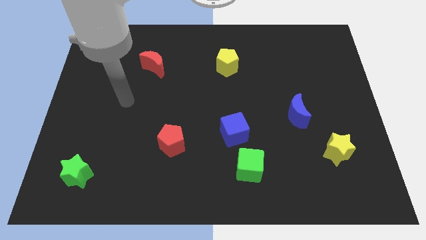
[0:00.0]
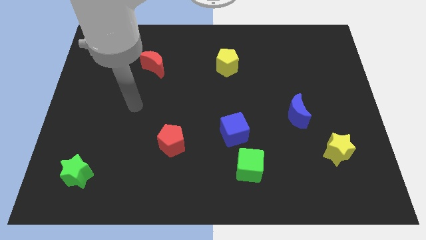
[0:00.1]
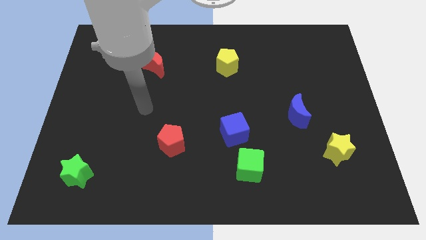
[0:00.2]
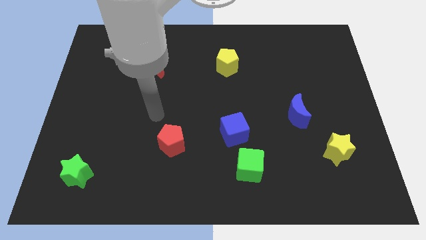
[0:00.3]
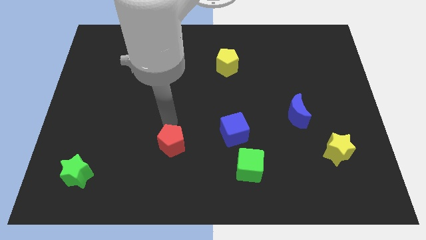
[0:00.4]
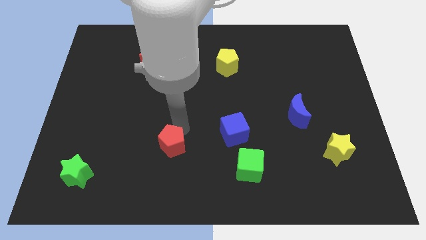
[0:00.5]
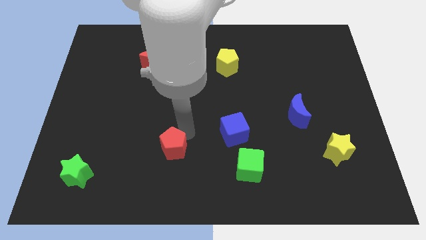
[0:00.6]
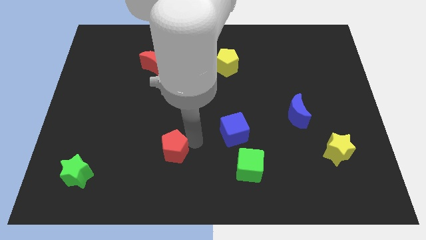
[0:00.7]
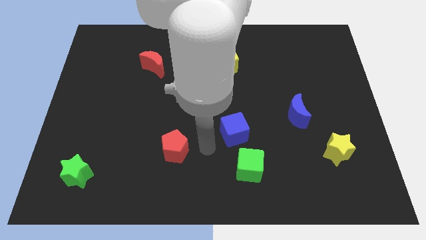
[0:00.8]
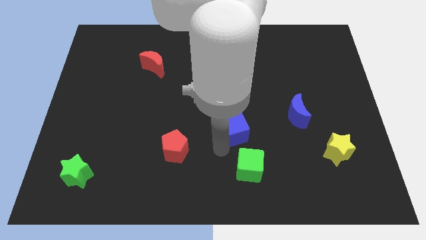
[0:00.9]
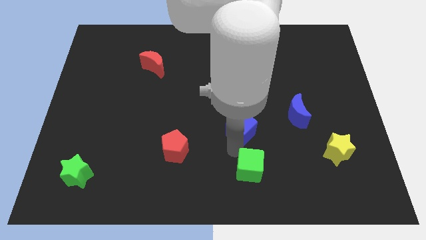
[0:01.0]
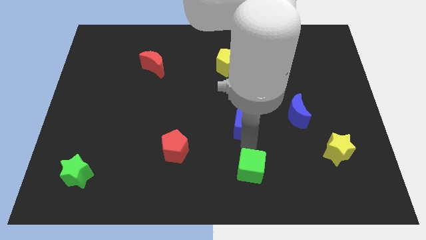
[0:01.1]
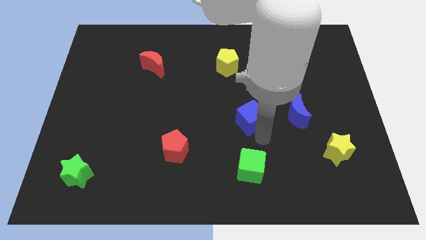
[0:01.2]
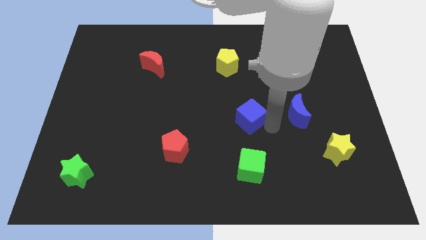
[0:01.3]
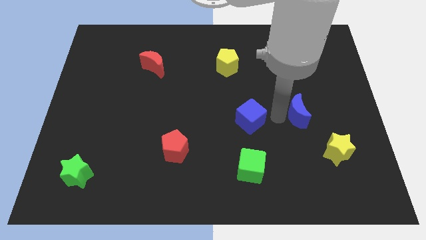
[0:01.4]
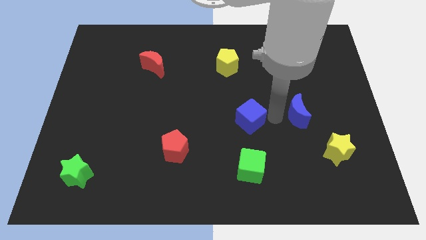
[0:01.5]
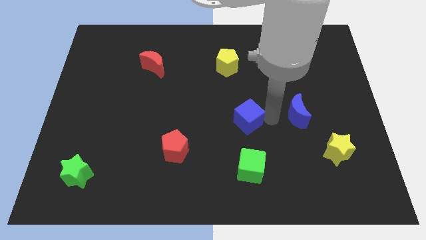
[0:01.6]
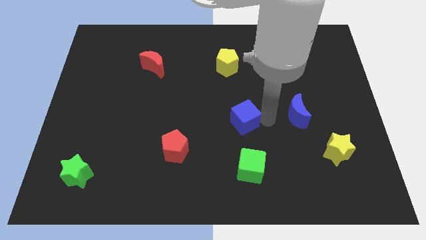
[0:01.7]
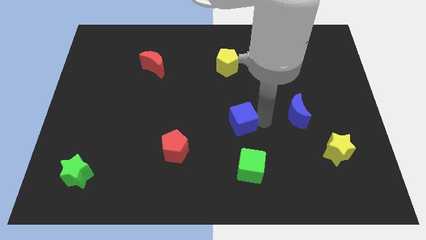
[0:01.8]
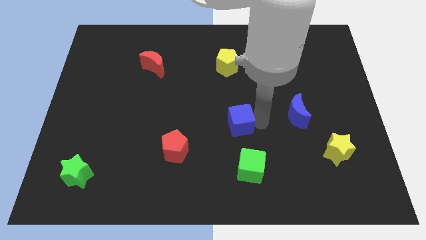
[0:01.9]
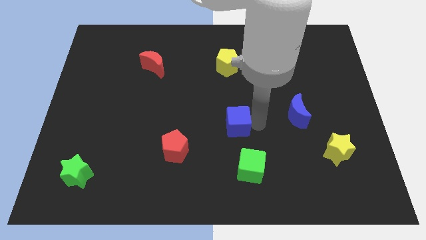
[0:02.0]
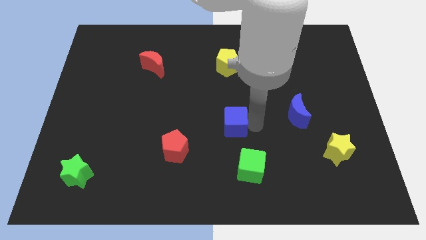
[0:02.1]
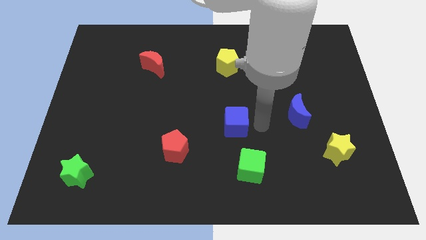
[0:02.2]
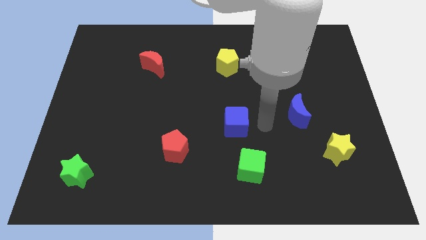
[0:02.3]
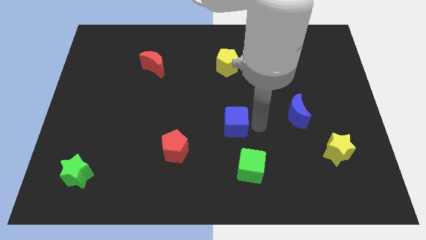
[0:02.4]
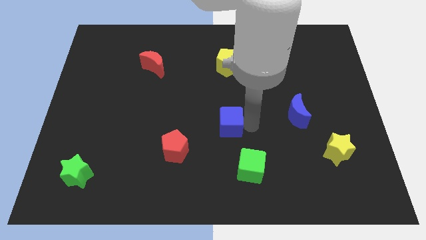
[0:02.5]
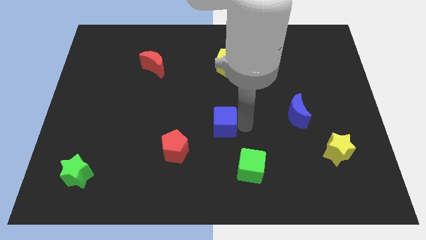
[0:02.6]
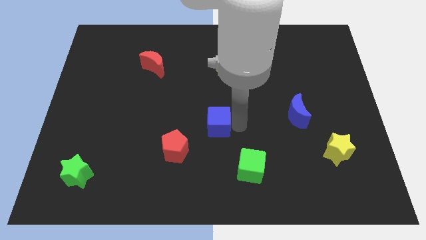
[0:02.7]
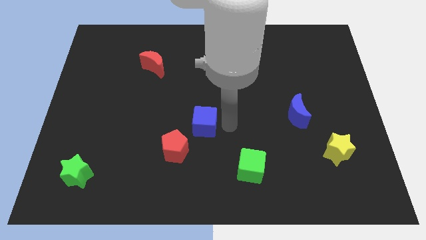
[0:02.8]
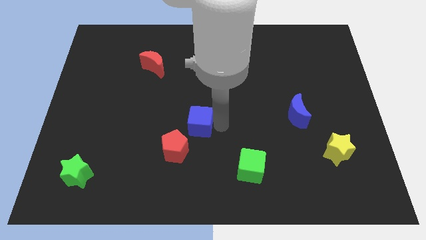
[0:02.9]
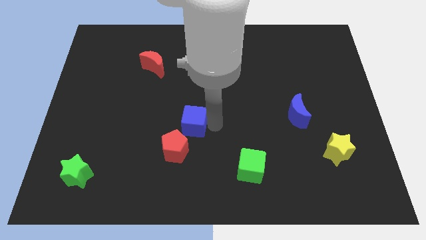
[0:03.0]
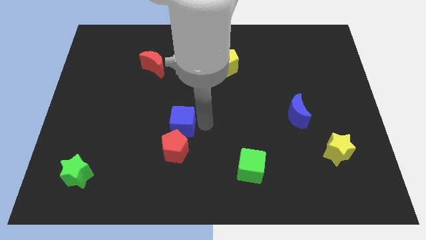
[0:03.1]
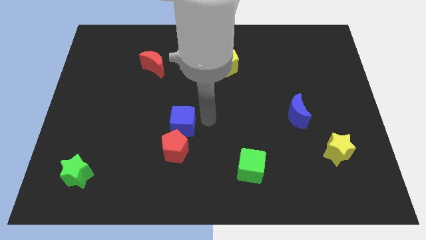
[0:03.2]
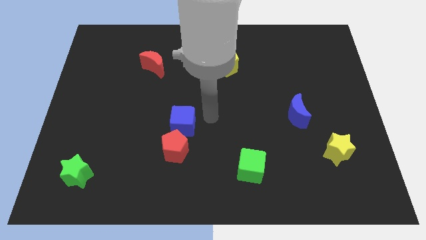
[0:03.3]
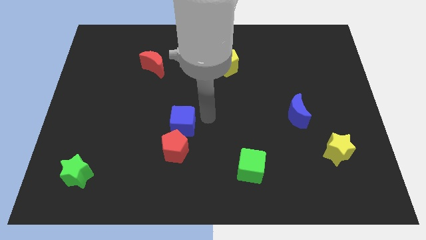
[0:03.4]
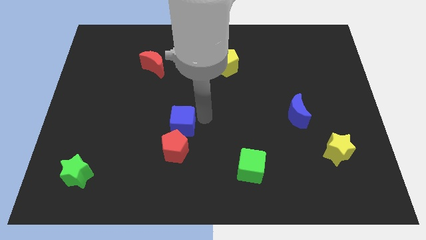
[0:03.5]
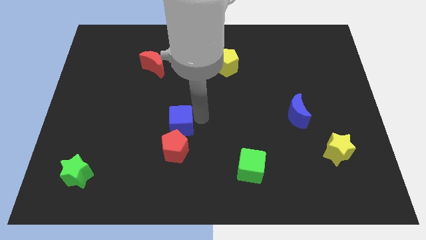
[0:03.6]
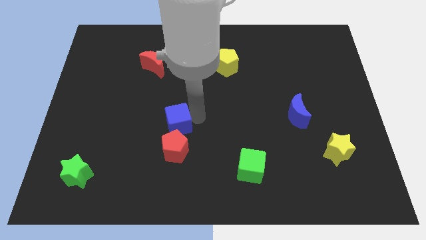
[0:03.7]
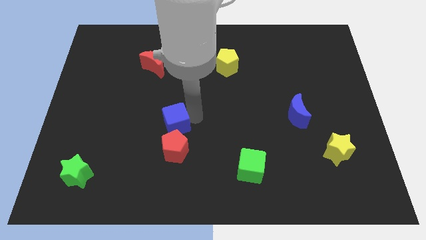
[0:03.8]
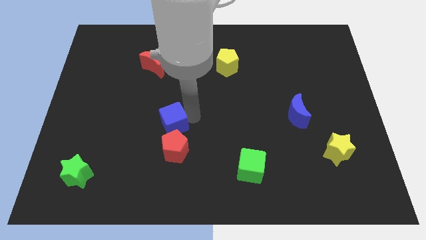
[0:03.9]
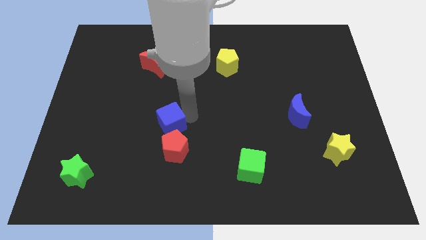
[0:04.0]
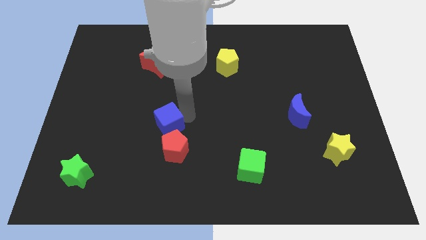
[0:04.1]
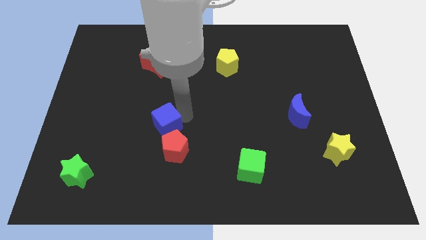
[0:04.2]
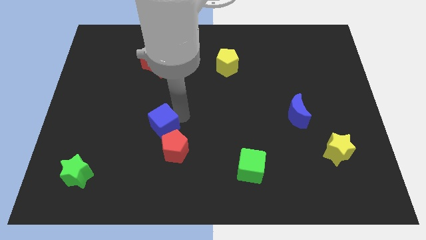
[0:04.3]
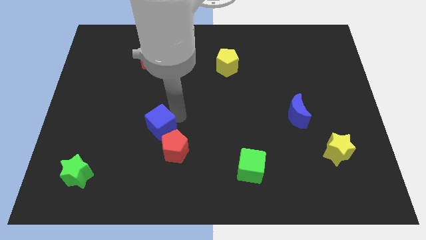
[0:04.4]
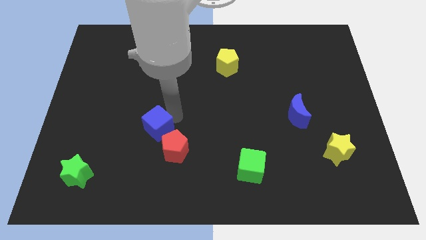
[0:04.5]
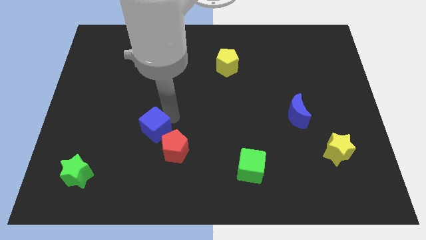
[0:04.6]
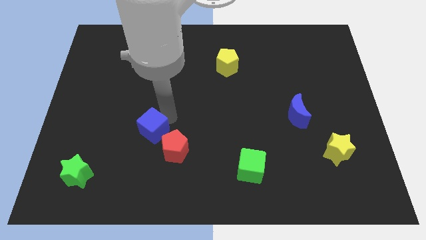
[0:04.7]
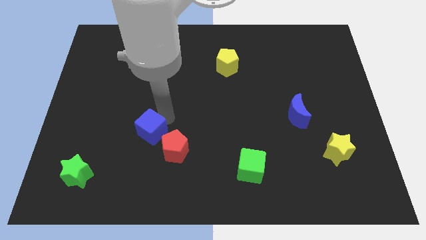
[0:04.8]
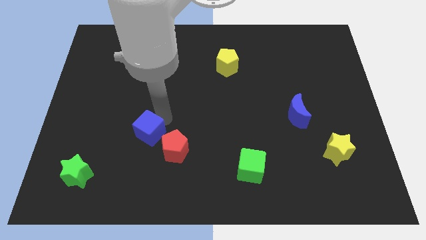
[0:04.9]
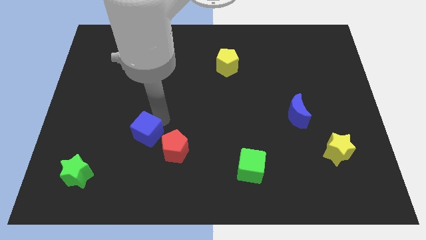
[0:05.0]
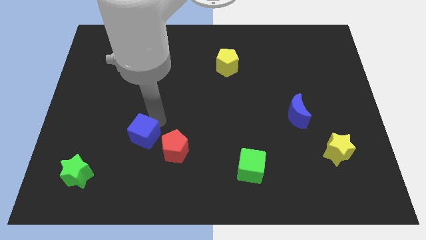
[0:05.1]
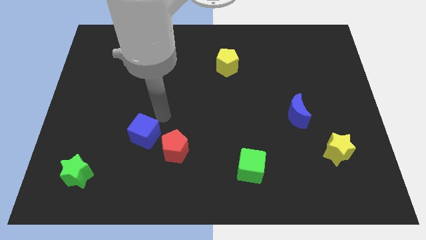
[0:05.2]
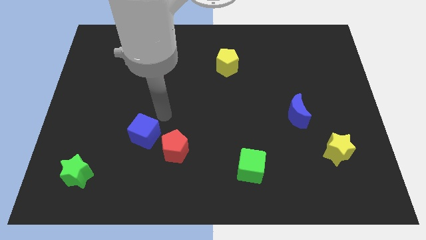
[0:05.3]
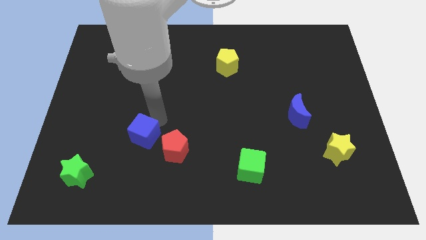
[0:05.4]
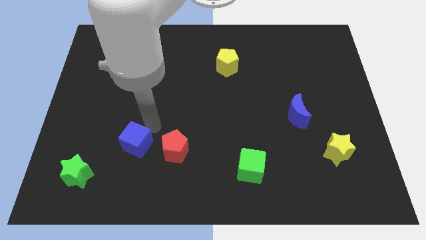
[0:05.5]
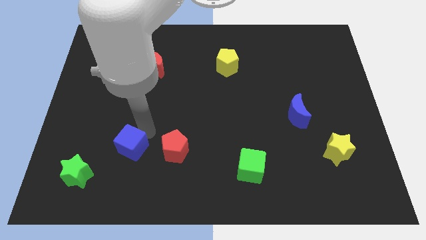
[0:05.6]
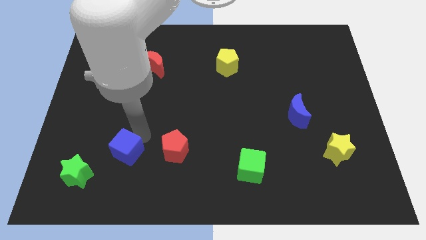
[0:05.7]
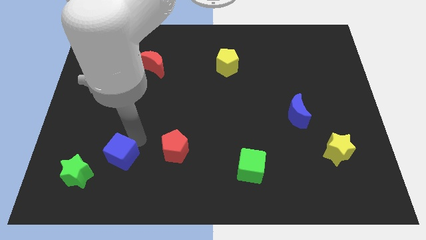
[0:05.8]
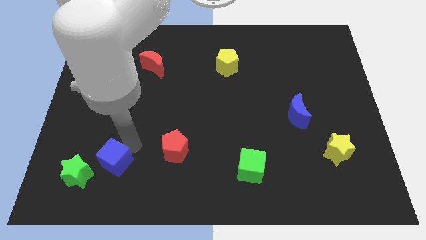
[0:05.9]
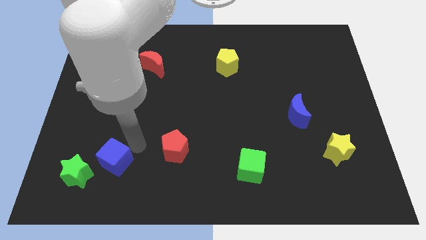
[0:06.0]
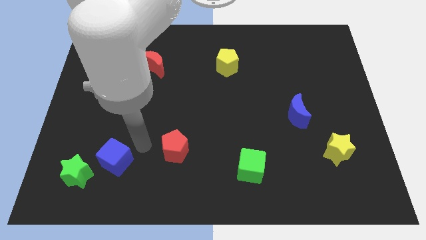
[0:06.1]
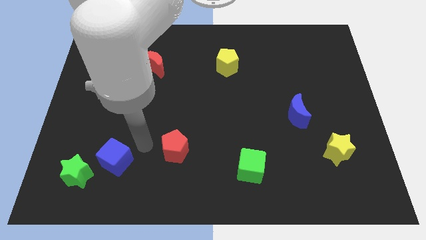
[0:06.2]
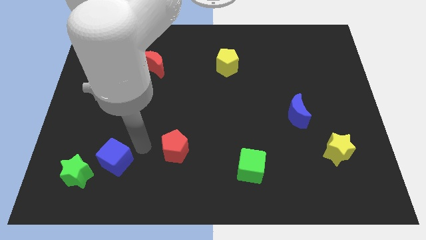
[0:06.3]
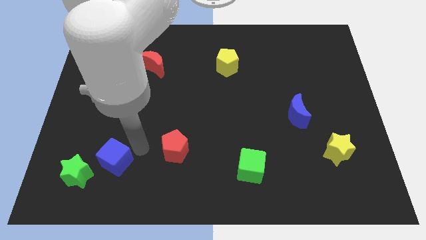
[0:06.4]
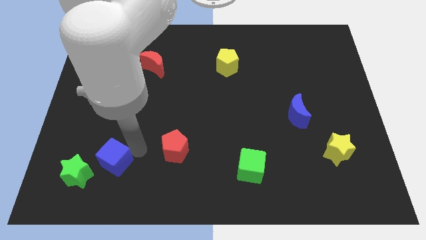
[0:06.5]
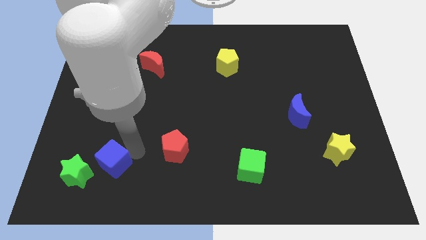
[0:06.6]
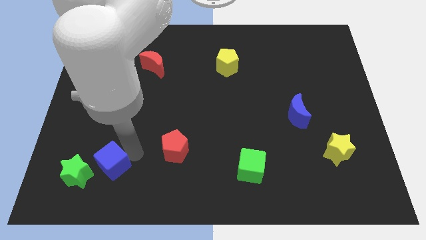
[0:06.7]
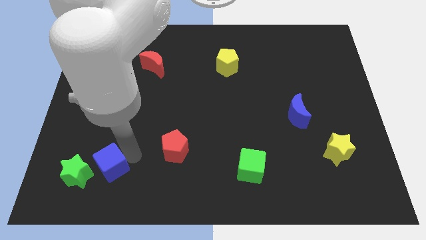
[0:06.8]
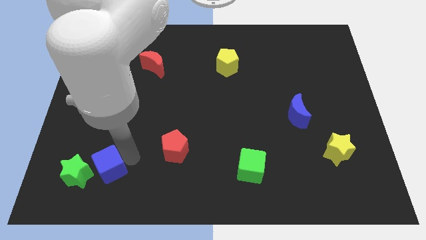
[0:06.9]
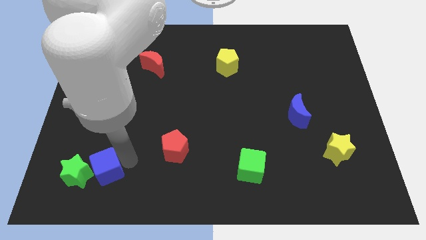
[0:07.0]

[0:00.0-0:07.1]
move the blue cube to the green star
